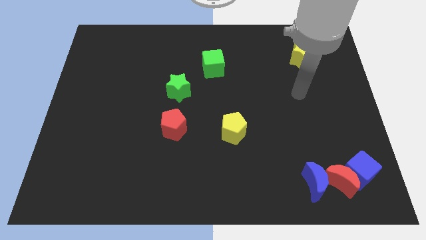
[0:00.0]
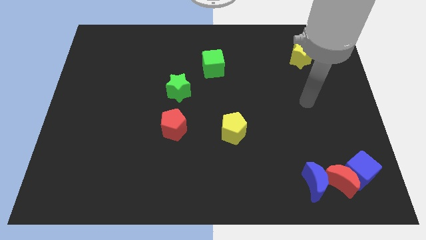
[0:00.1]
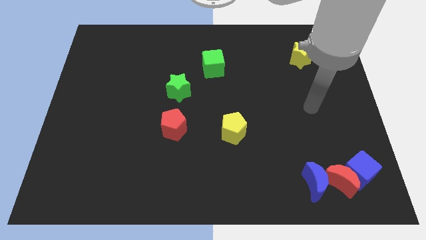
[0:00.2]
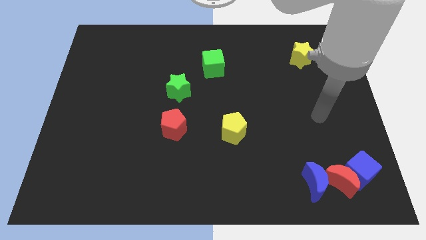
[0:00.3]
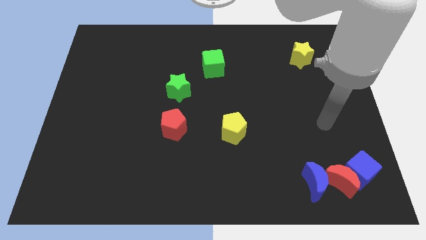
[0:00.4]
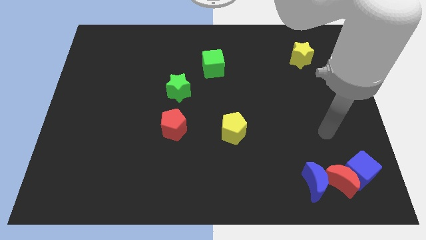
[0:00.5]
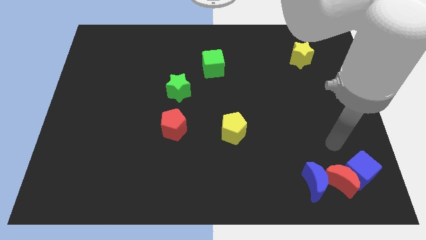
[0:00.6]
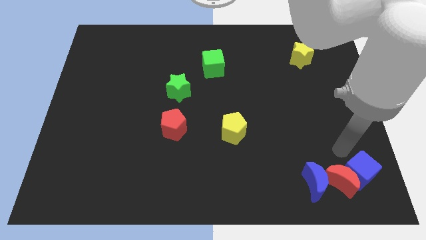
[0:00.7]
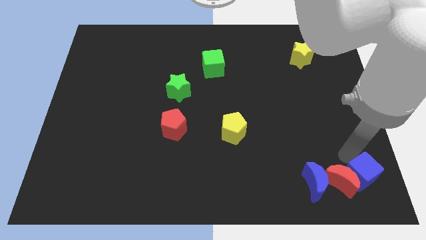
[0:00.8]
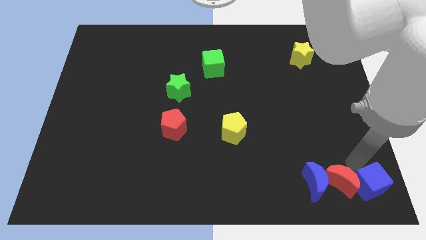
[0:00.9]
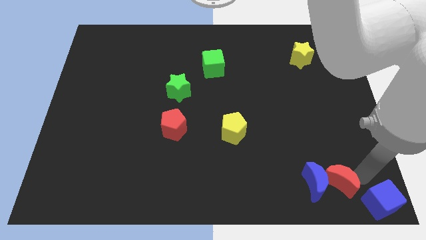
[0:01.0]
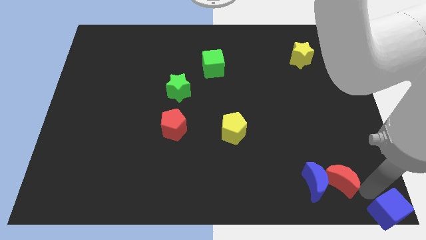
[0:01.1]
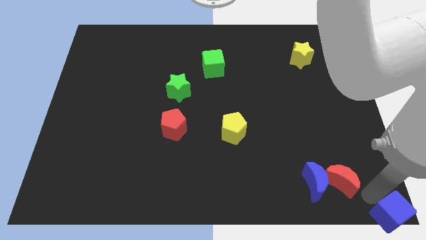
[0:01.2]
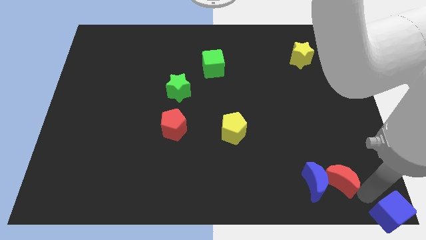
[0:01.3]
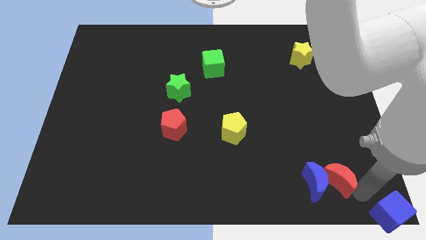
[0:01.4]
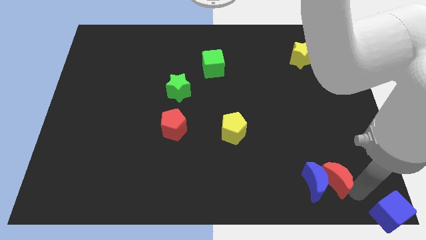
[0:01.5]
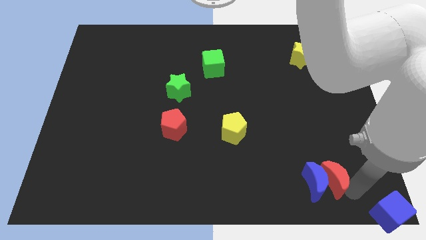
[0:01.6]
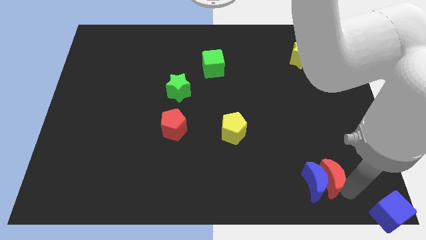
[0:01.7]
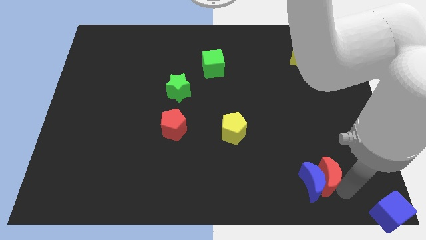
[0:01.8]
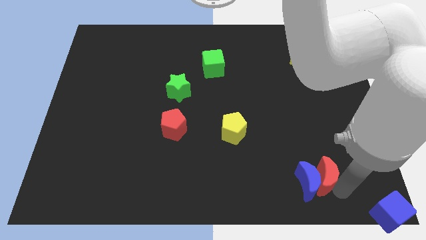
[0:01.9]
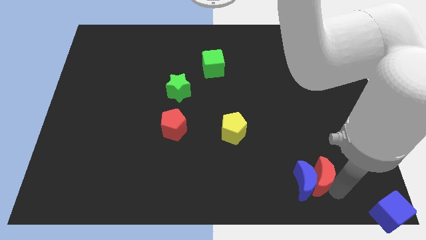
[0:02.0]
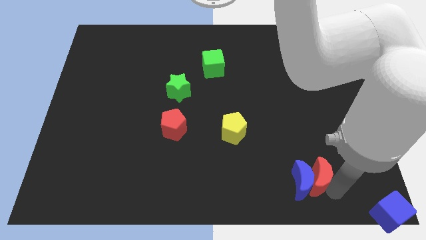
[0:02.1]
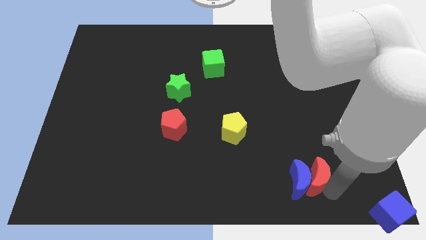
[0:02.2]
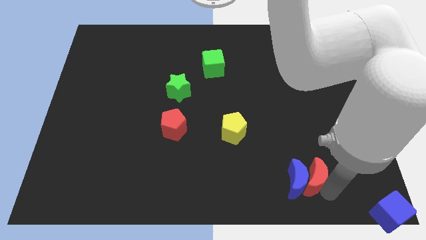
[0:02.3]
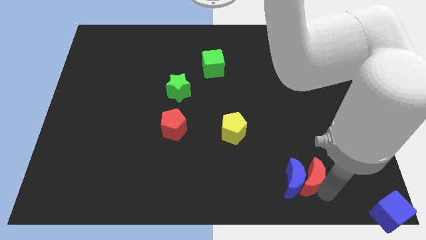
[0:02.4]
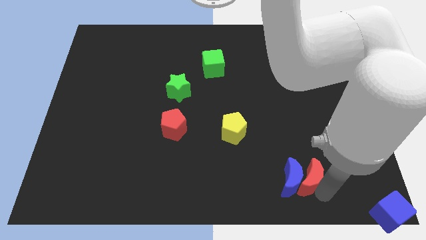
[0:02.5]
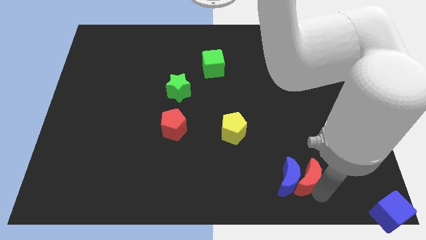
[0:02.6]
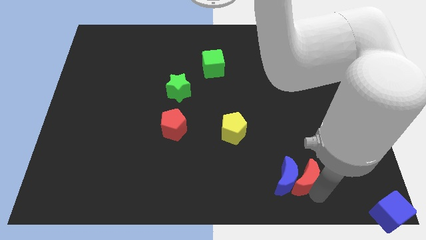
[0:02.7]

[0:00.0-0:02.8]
push the red moon to the left slightly

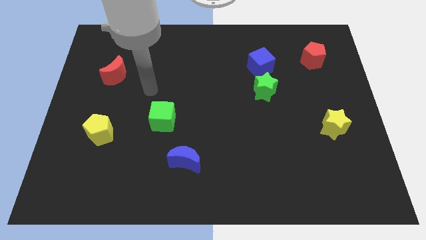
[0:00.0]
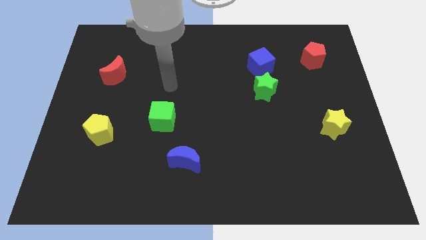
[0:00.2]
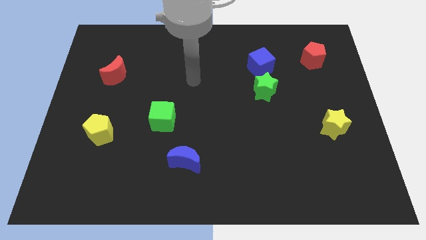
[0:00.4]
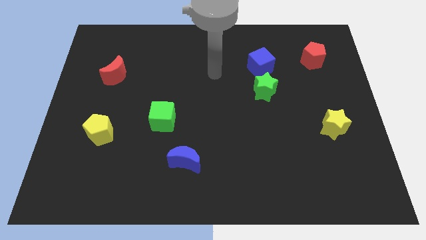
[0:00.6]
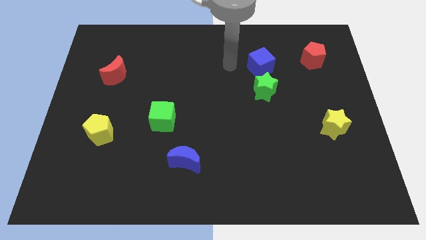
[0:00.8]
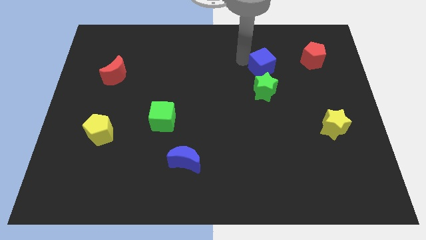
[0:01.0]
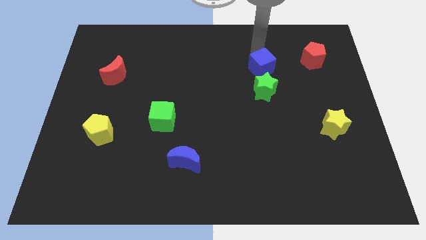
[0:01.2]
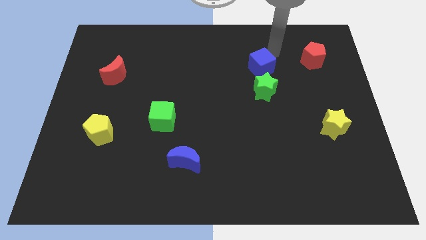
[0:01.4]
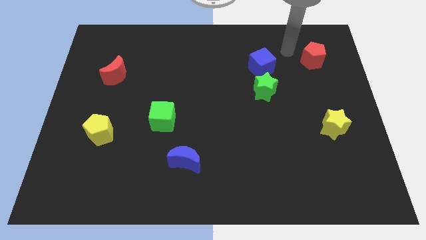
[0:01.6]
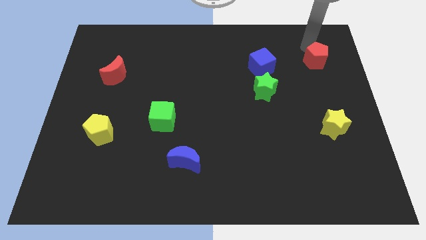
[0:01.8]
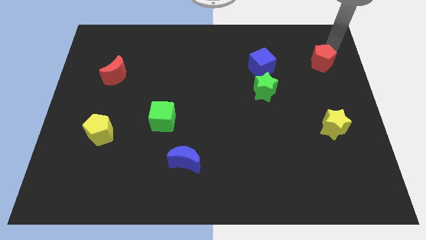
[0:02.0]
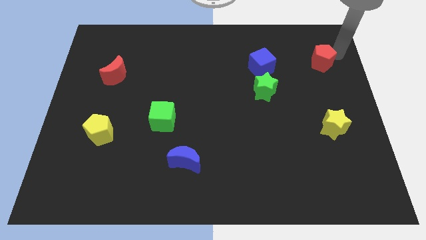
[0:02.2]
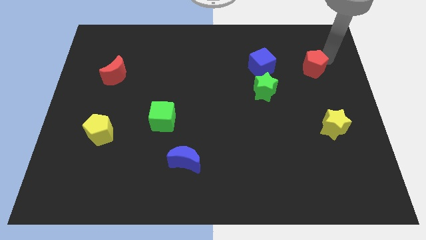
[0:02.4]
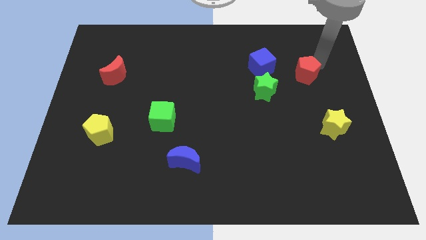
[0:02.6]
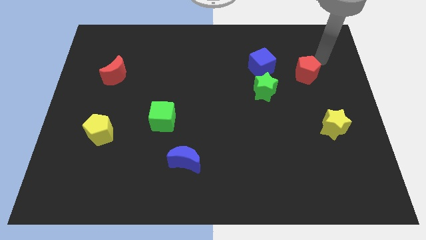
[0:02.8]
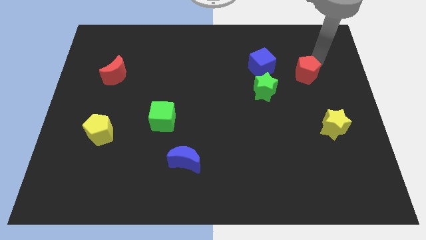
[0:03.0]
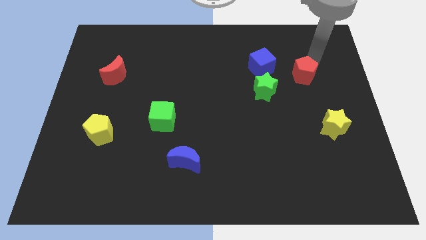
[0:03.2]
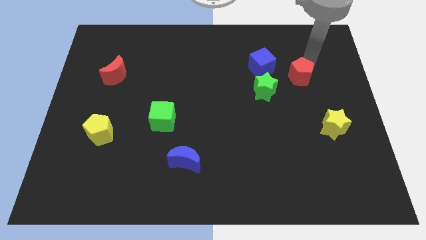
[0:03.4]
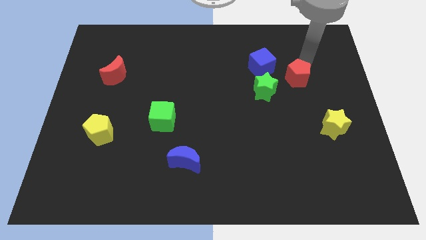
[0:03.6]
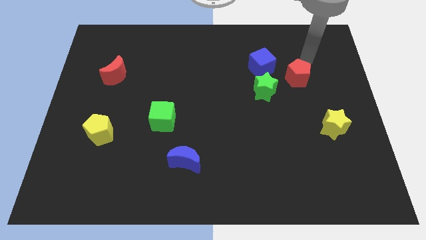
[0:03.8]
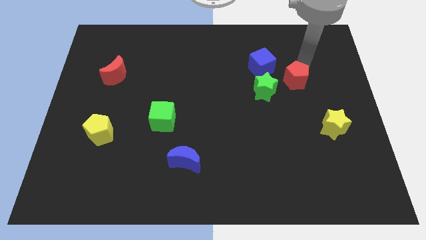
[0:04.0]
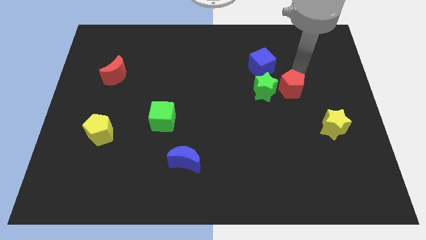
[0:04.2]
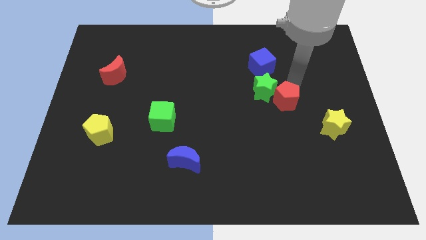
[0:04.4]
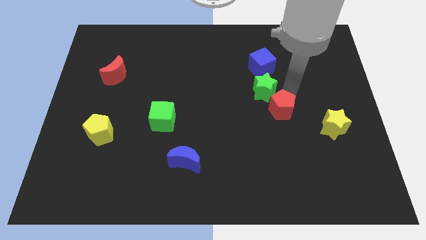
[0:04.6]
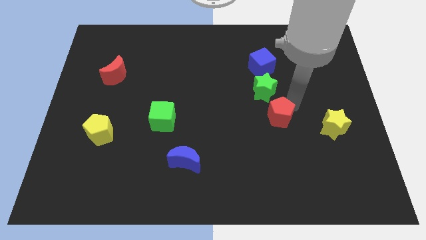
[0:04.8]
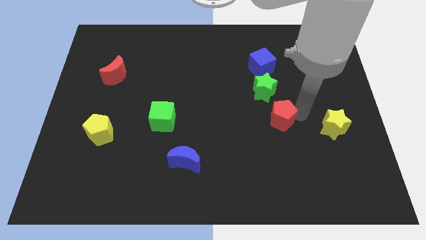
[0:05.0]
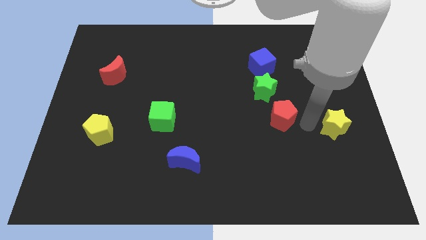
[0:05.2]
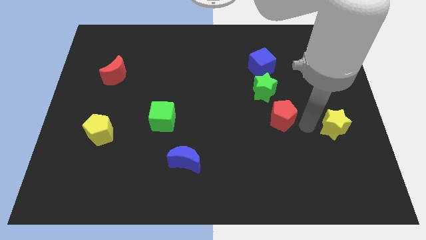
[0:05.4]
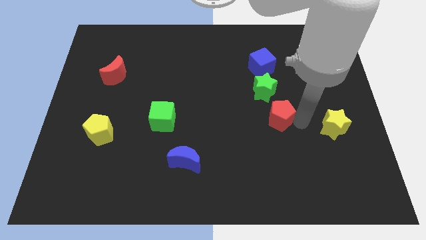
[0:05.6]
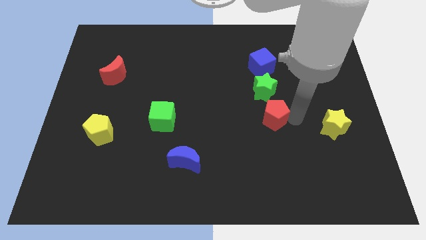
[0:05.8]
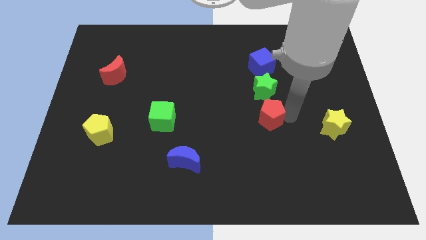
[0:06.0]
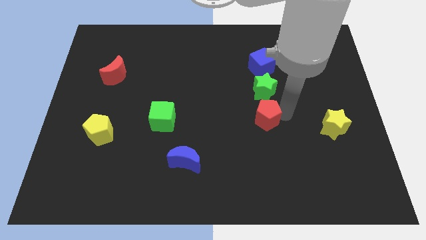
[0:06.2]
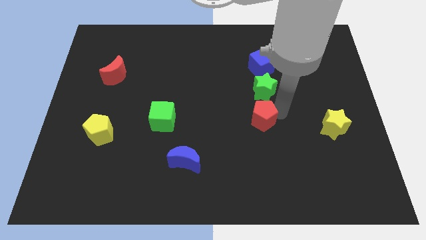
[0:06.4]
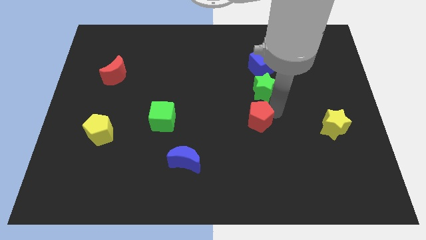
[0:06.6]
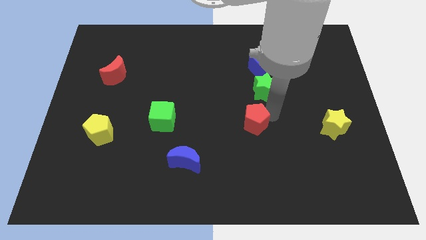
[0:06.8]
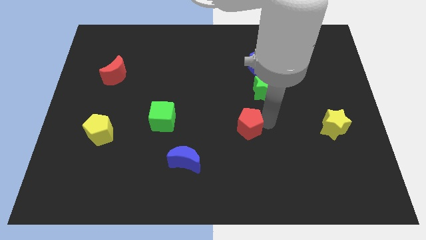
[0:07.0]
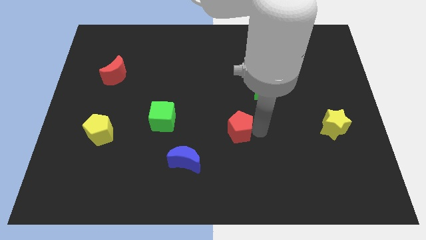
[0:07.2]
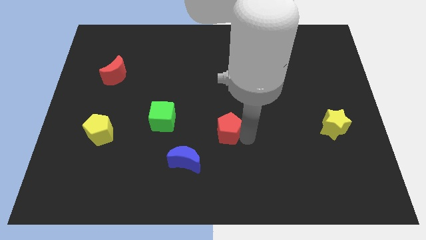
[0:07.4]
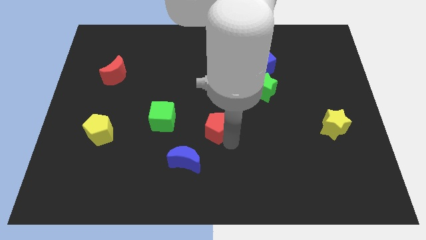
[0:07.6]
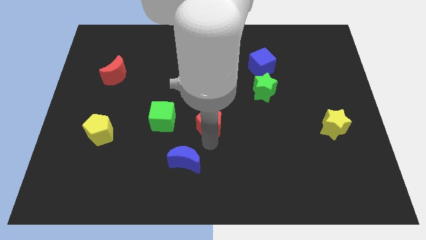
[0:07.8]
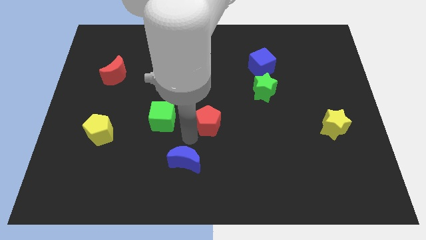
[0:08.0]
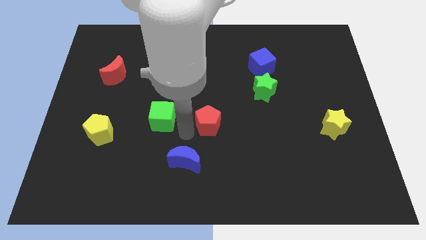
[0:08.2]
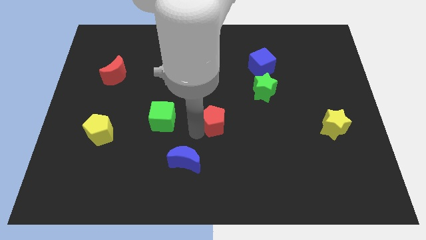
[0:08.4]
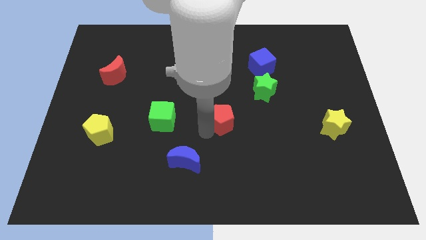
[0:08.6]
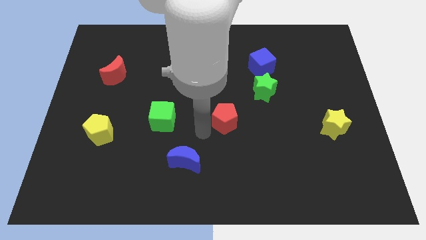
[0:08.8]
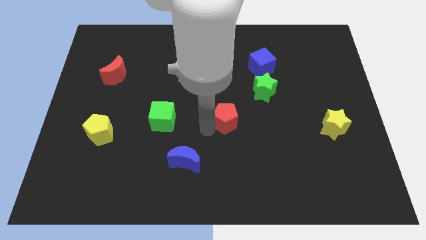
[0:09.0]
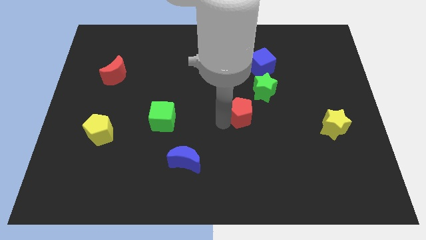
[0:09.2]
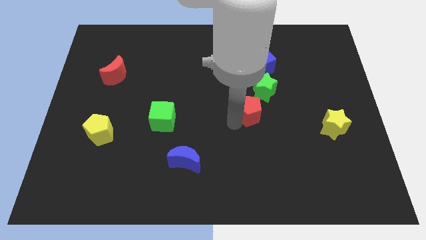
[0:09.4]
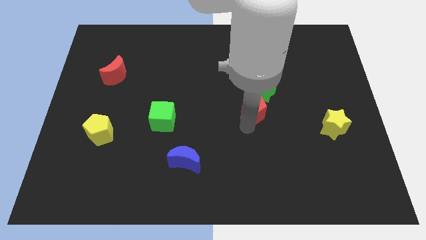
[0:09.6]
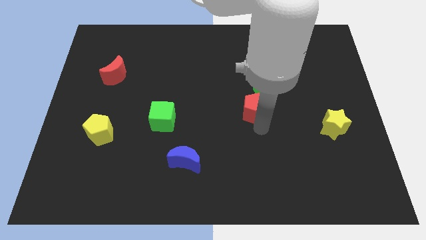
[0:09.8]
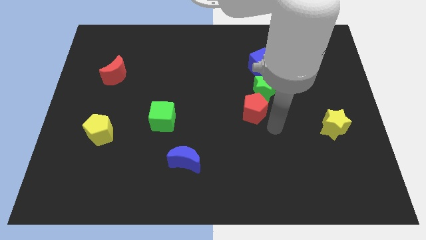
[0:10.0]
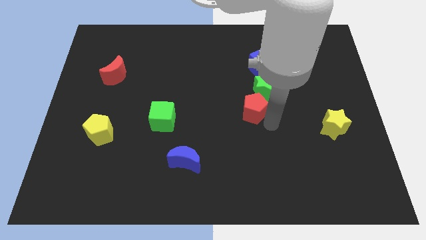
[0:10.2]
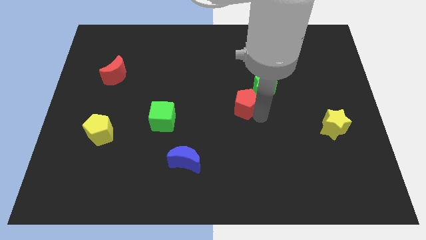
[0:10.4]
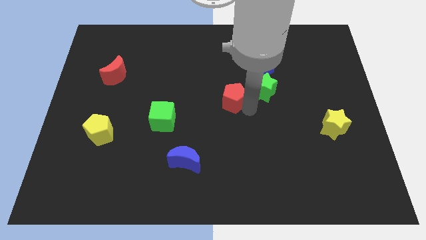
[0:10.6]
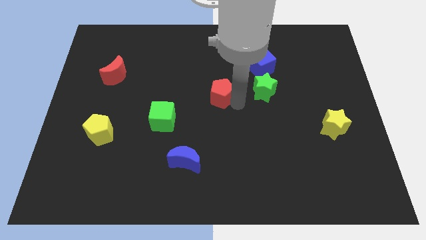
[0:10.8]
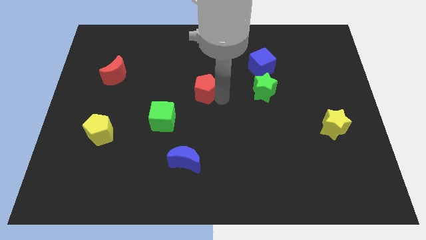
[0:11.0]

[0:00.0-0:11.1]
push the red pentagon left
